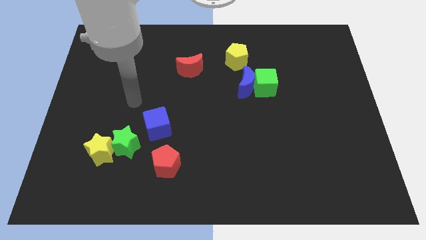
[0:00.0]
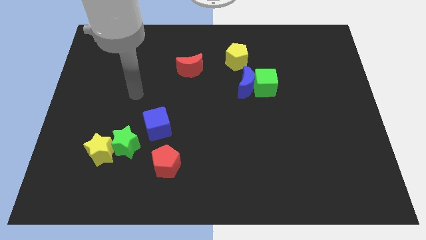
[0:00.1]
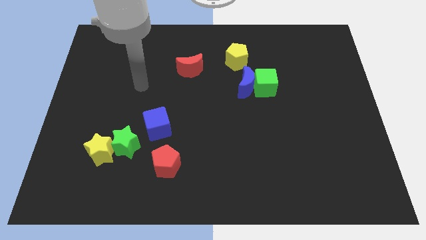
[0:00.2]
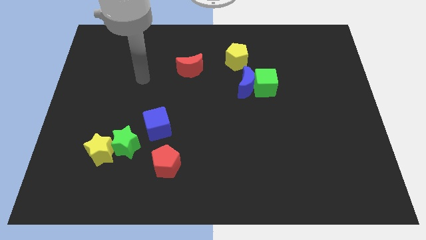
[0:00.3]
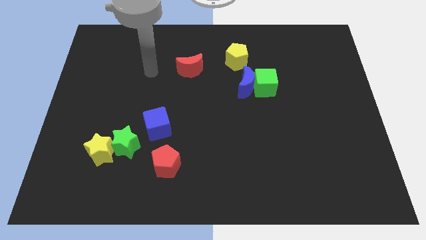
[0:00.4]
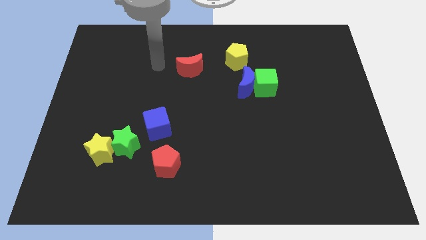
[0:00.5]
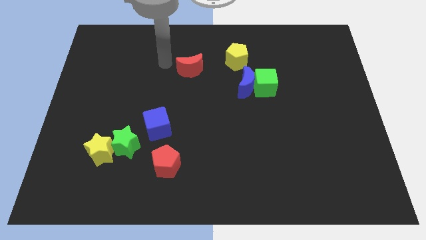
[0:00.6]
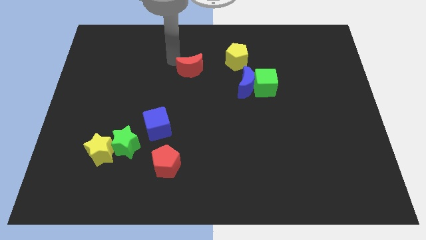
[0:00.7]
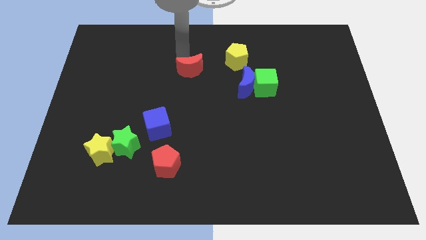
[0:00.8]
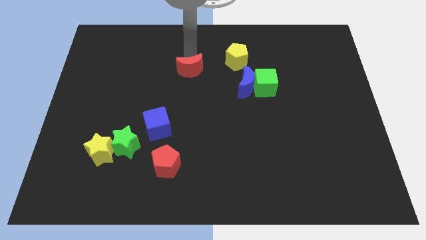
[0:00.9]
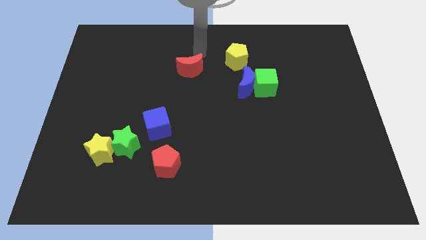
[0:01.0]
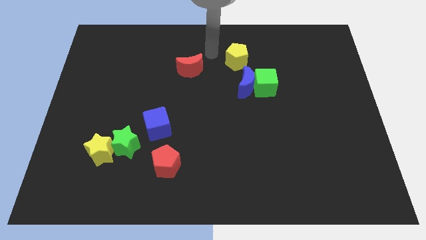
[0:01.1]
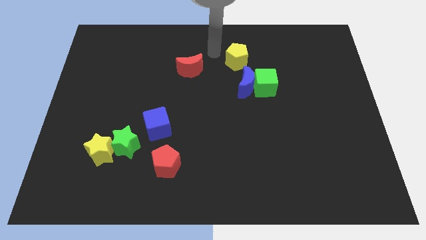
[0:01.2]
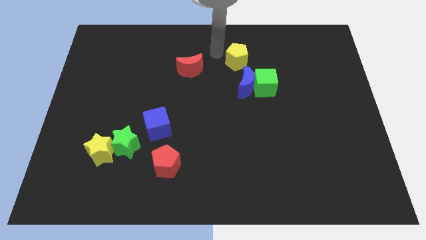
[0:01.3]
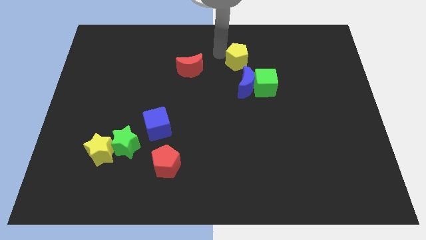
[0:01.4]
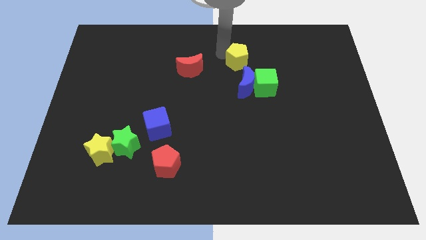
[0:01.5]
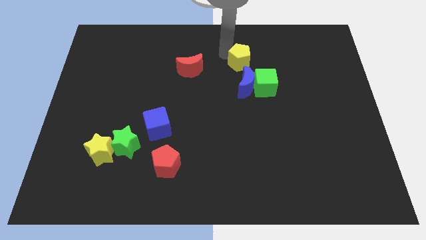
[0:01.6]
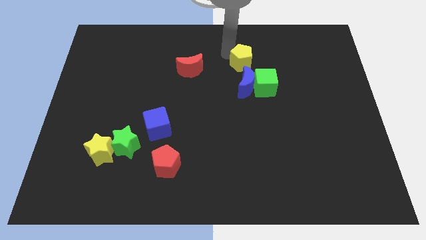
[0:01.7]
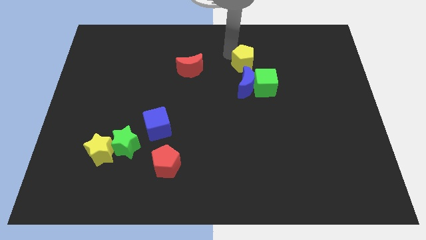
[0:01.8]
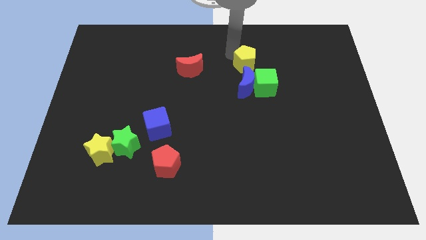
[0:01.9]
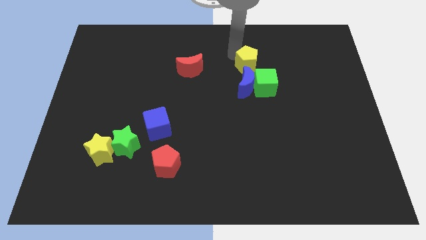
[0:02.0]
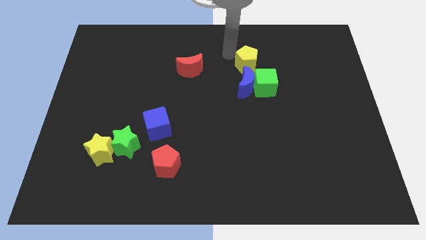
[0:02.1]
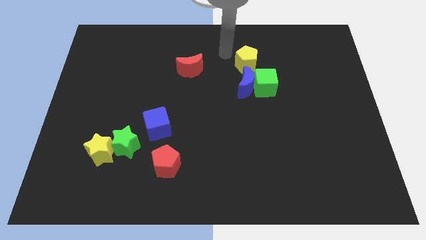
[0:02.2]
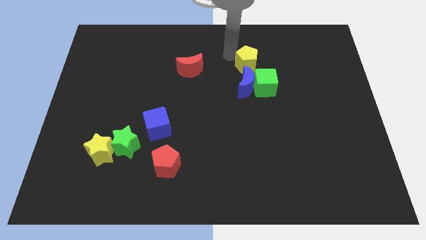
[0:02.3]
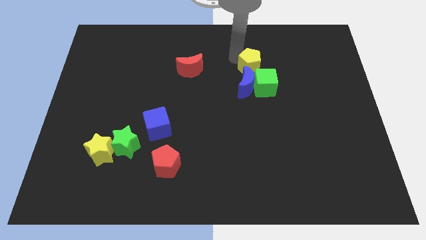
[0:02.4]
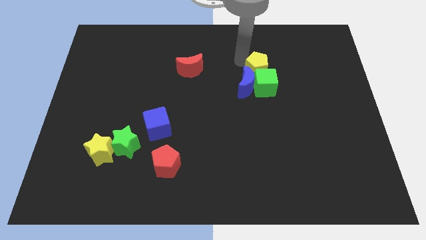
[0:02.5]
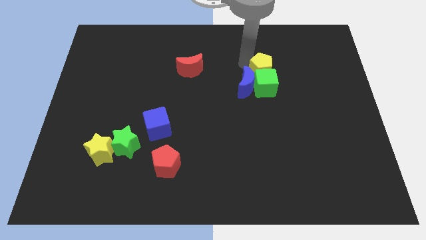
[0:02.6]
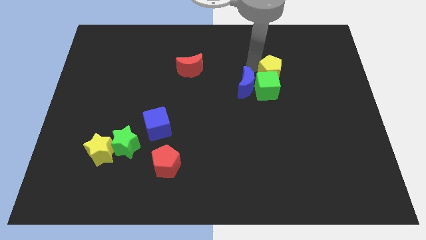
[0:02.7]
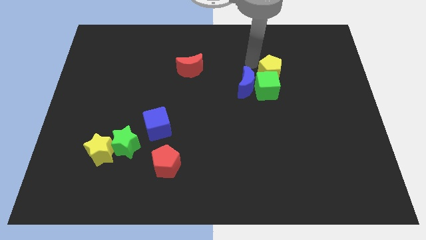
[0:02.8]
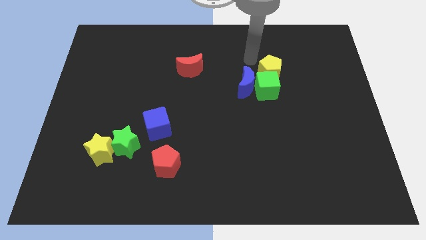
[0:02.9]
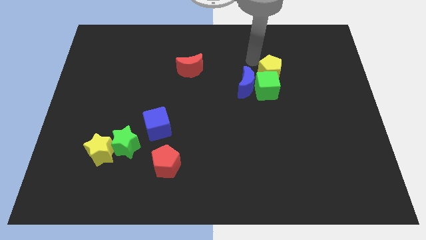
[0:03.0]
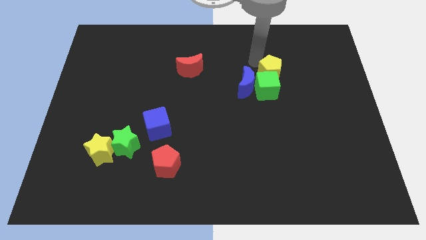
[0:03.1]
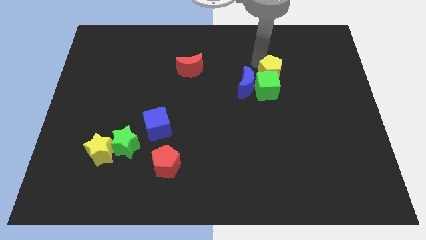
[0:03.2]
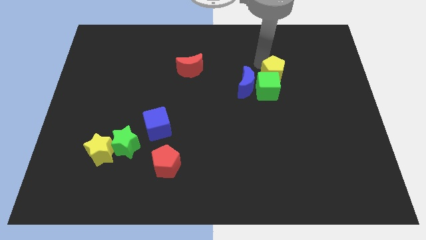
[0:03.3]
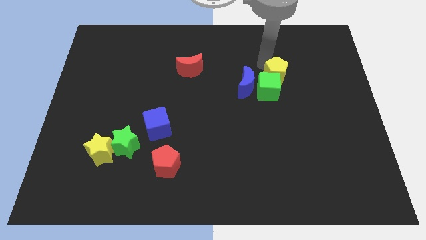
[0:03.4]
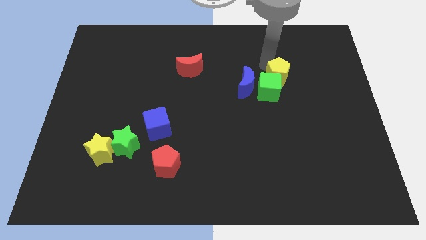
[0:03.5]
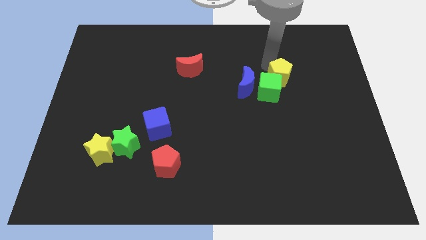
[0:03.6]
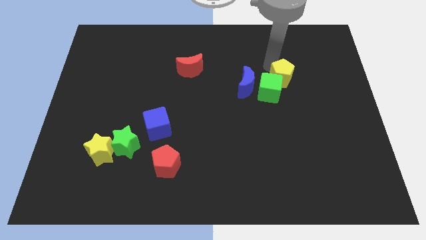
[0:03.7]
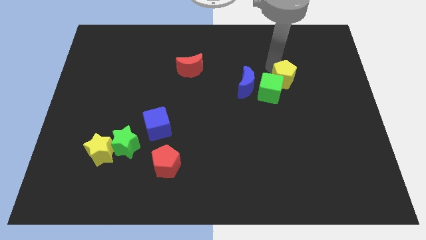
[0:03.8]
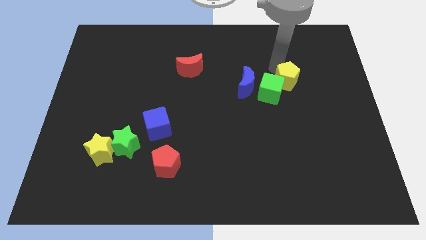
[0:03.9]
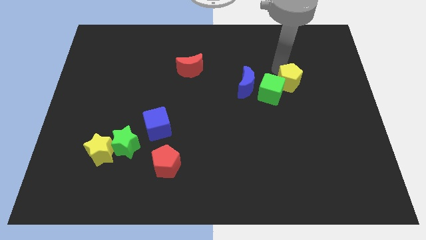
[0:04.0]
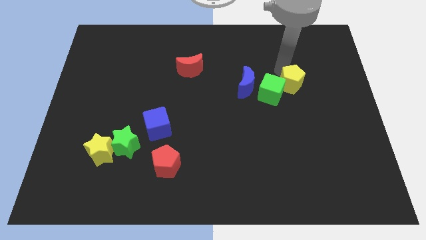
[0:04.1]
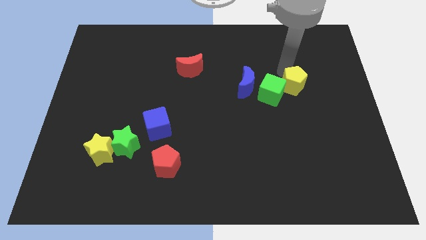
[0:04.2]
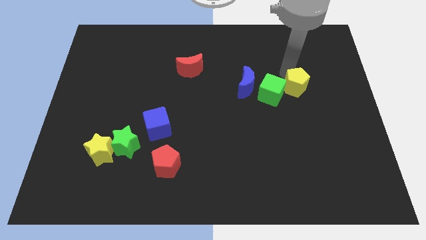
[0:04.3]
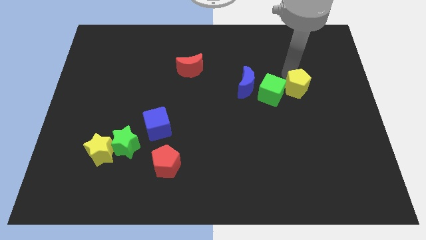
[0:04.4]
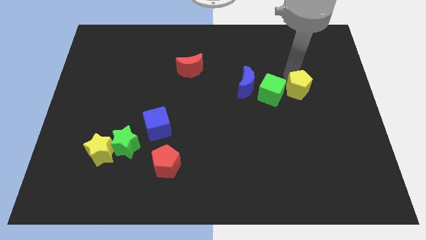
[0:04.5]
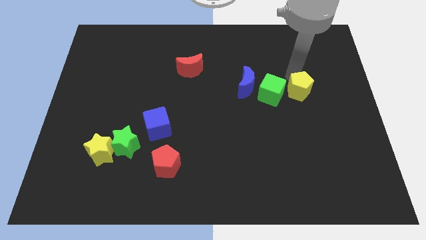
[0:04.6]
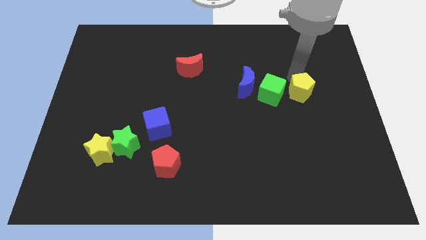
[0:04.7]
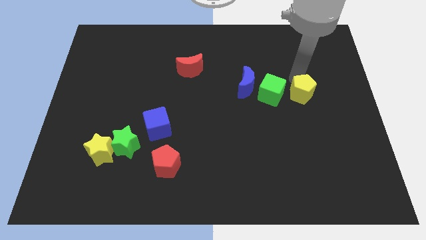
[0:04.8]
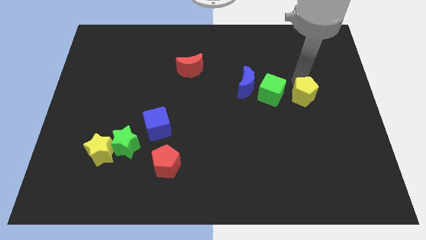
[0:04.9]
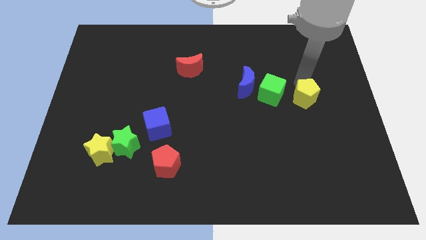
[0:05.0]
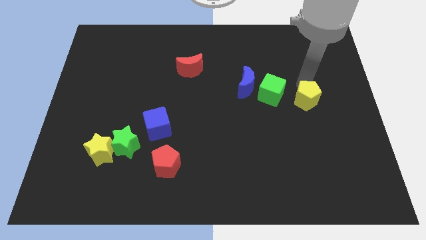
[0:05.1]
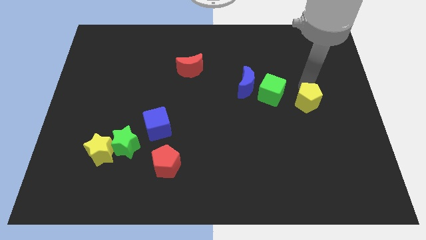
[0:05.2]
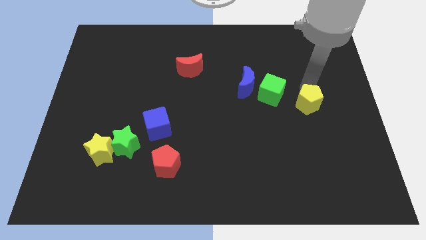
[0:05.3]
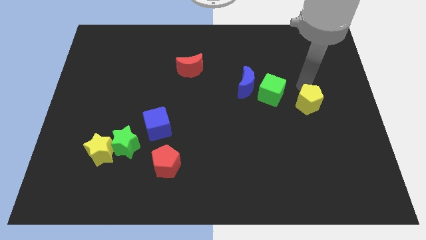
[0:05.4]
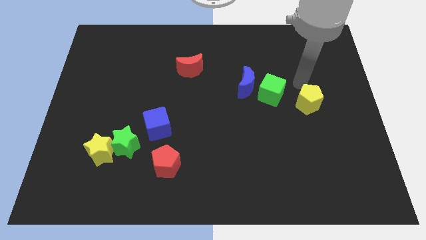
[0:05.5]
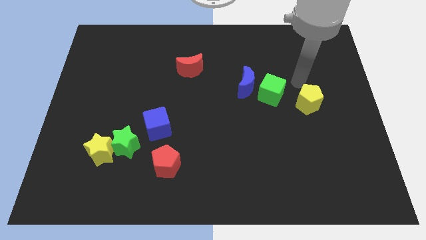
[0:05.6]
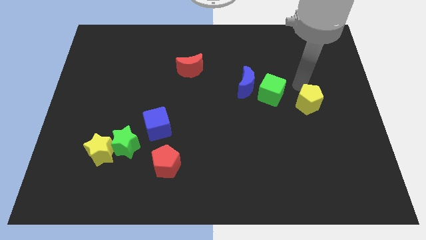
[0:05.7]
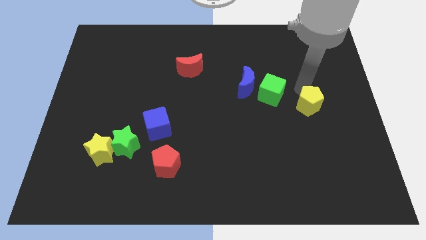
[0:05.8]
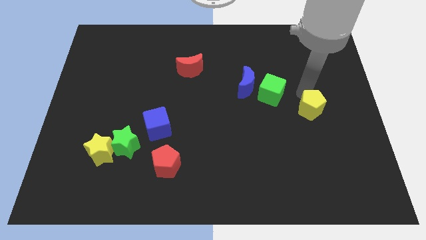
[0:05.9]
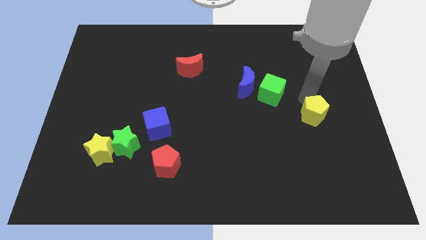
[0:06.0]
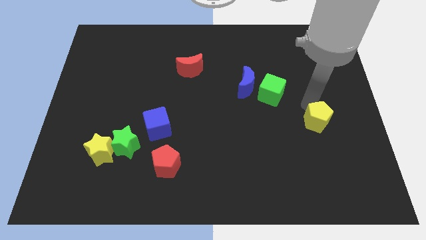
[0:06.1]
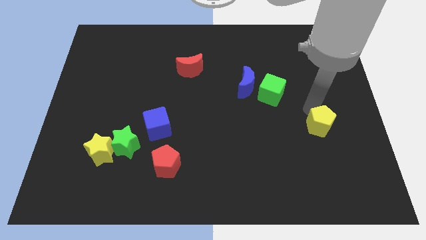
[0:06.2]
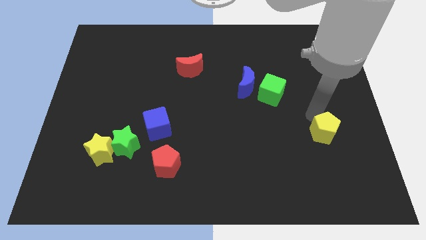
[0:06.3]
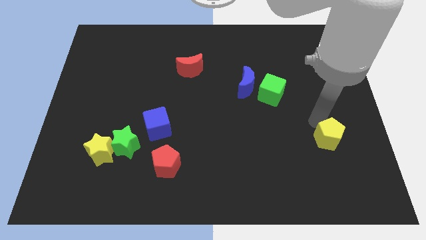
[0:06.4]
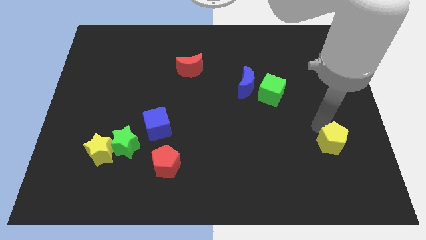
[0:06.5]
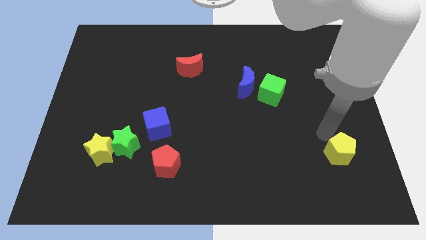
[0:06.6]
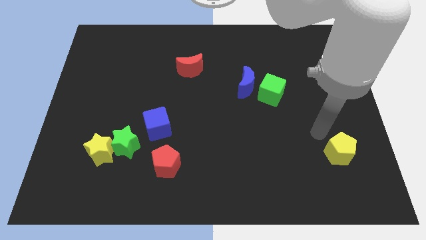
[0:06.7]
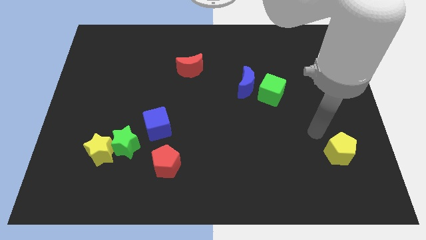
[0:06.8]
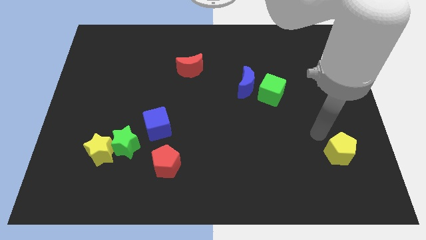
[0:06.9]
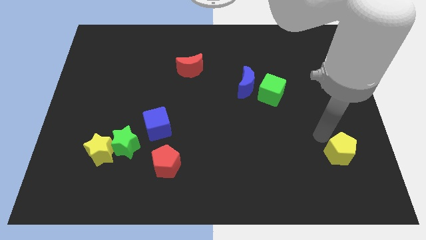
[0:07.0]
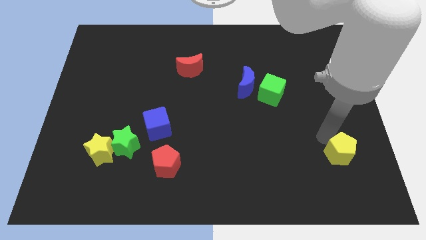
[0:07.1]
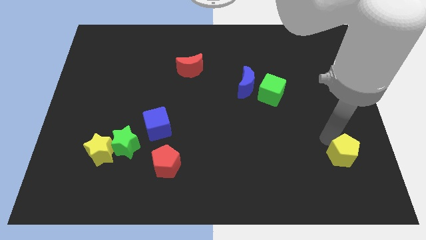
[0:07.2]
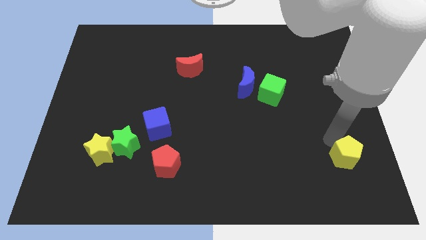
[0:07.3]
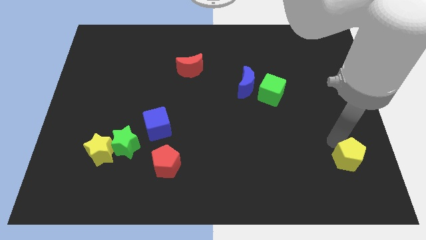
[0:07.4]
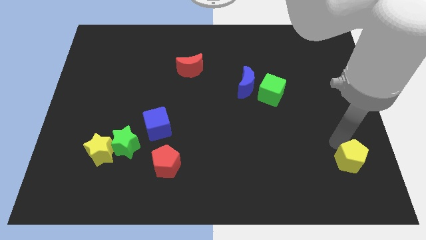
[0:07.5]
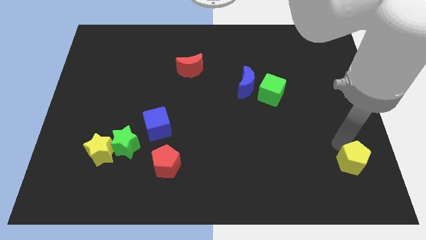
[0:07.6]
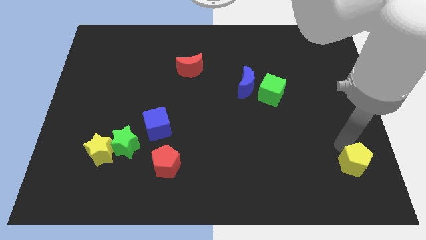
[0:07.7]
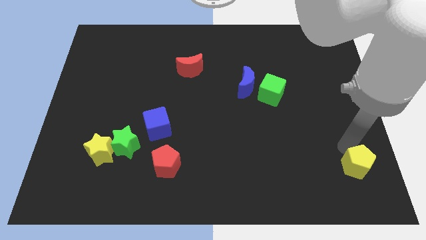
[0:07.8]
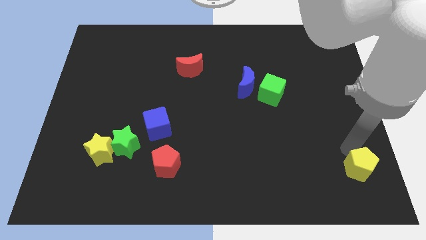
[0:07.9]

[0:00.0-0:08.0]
slide the yellow pentagon to the bottom right corner
